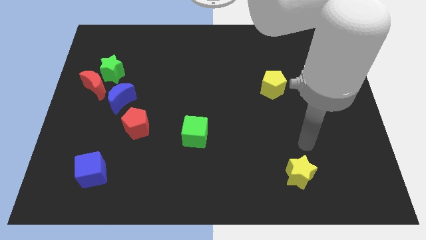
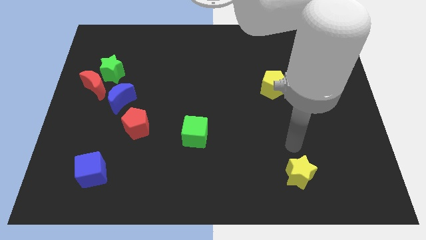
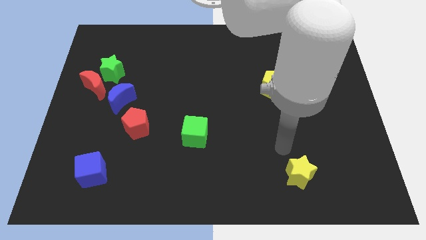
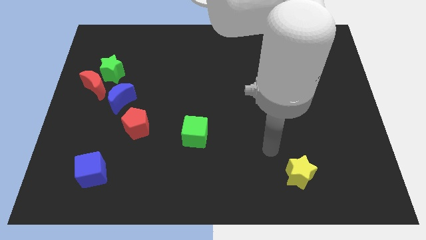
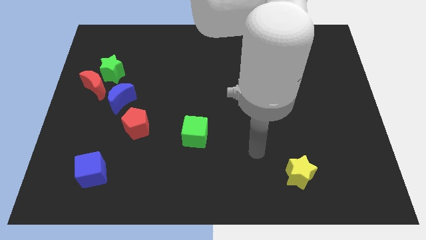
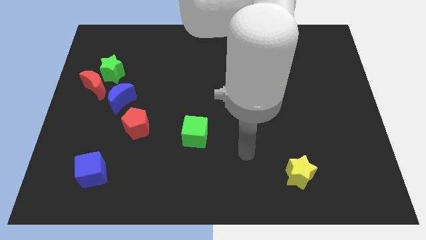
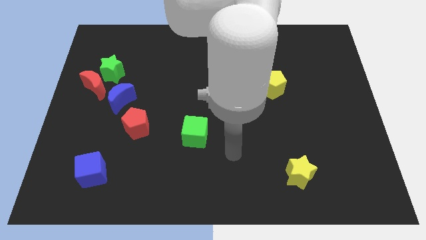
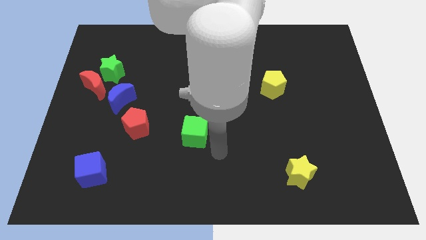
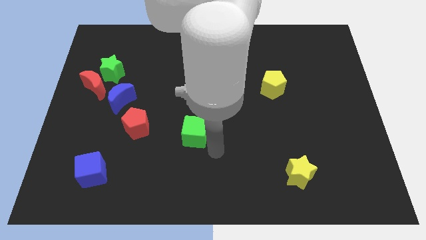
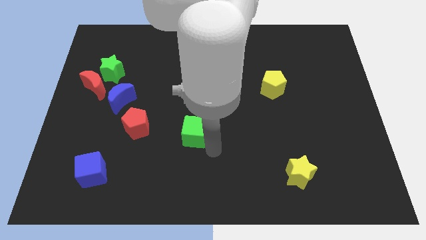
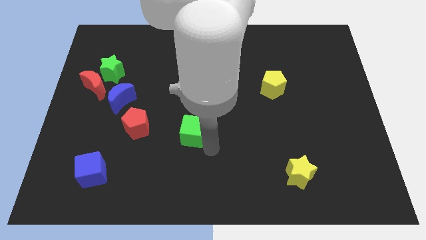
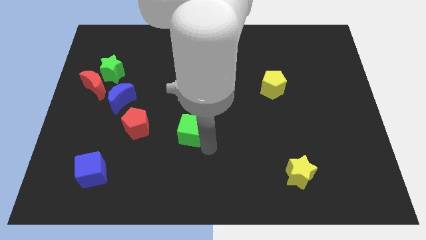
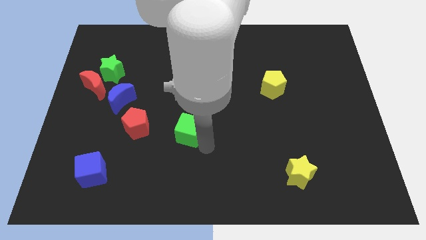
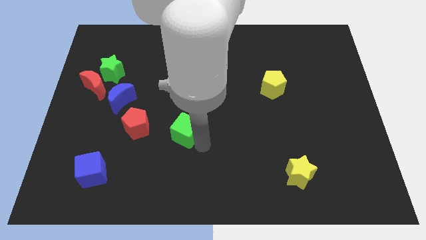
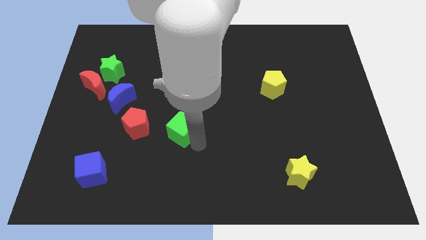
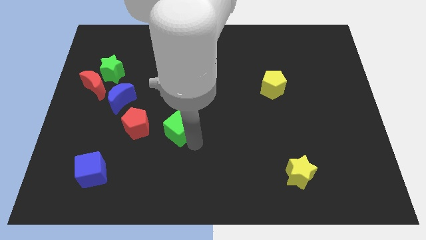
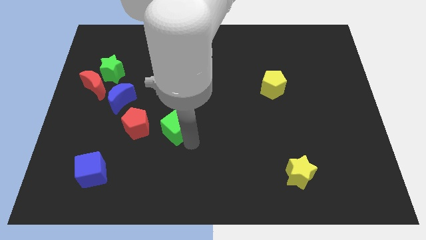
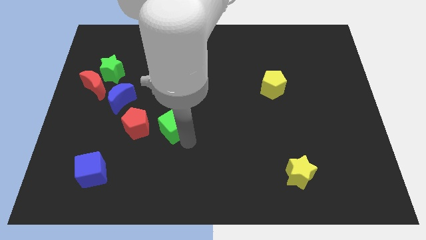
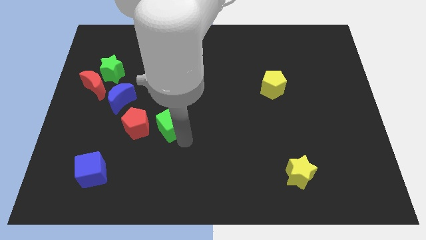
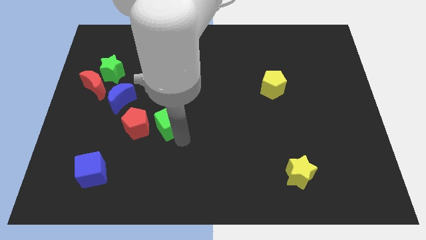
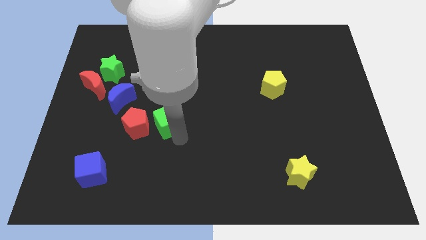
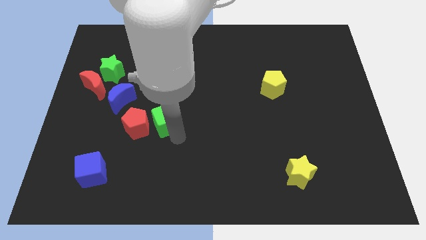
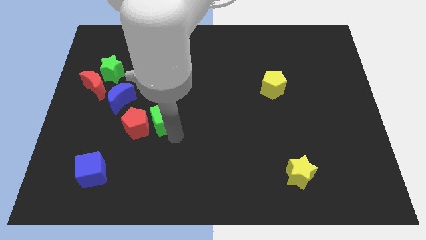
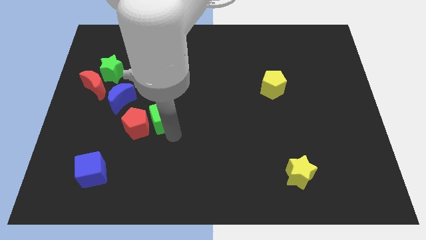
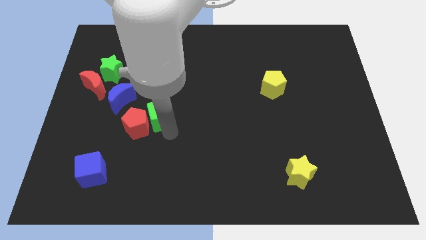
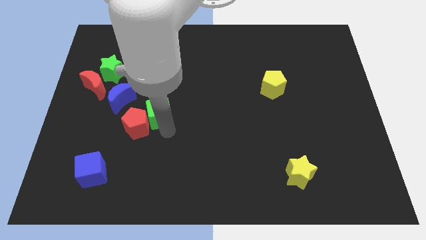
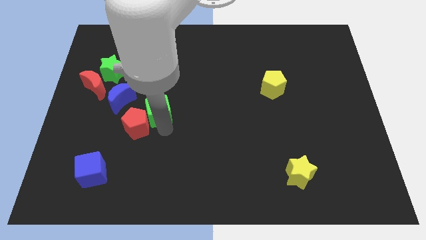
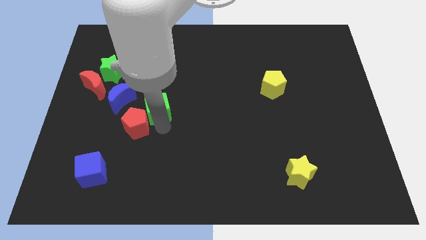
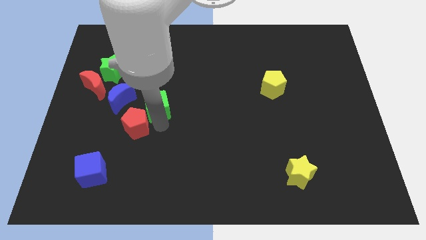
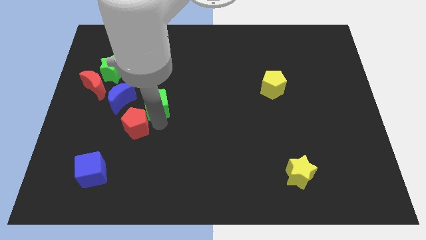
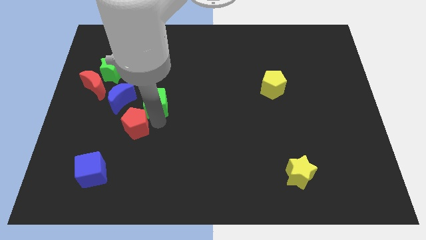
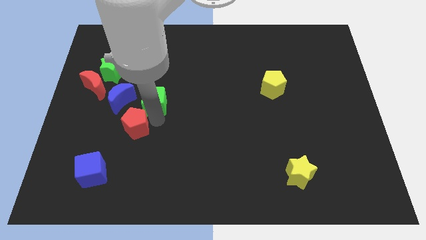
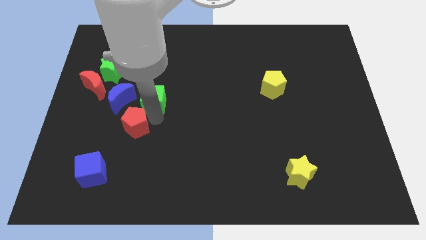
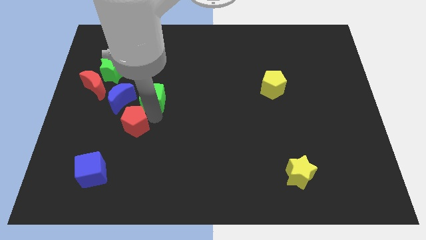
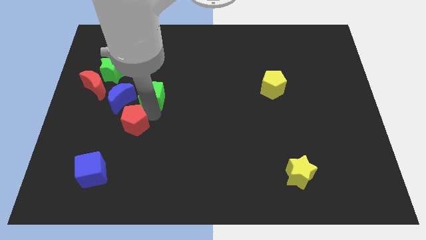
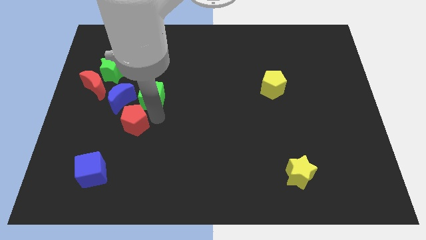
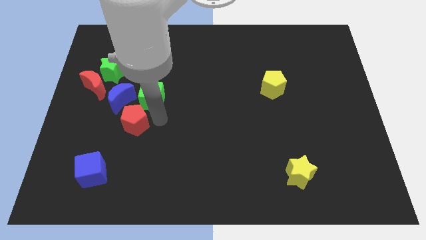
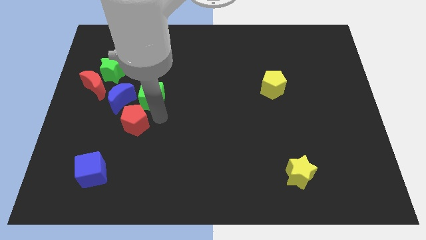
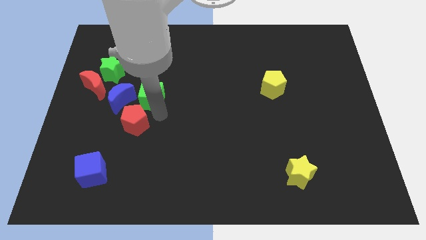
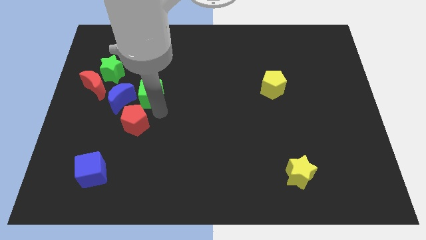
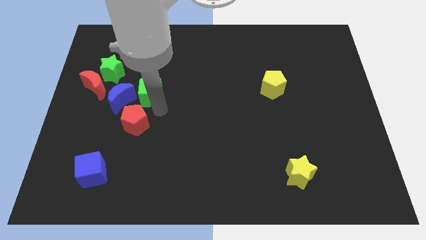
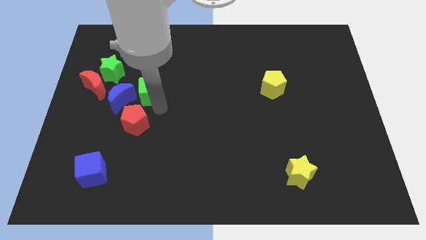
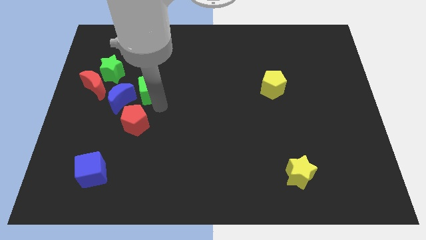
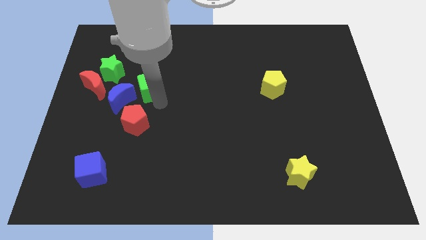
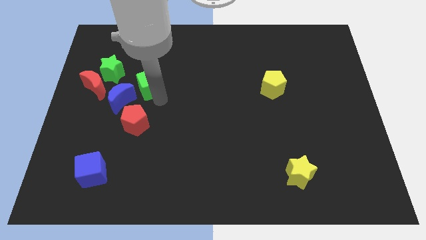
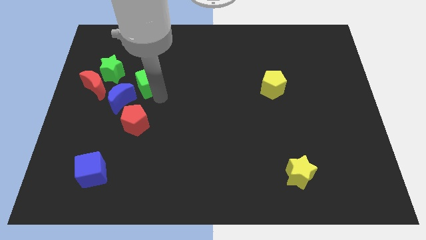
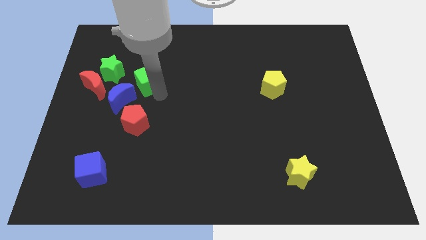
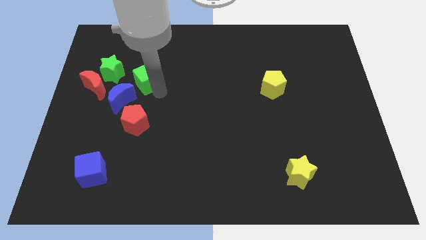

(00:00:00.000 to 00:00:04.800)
slide the green cube diagonally upwards and left

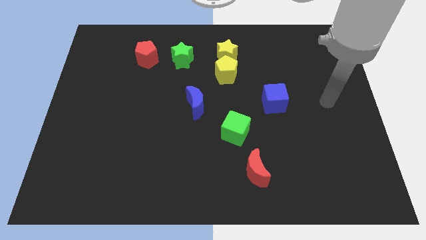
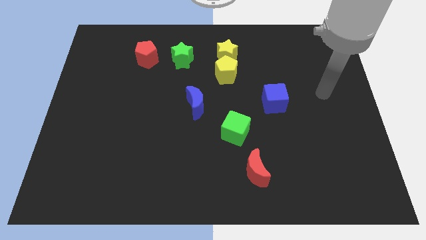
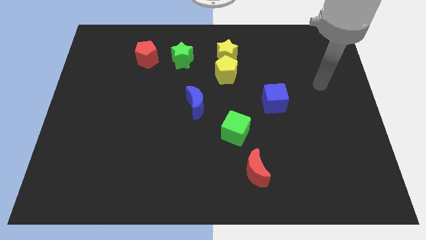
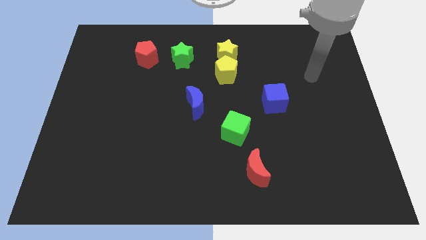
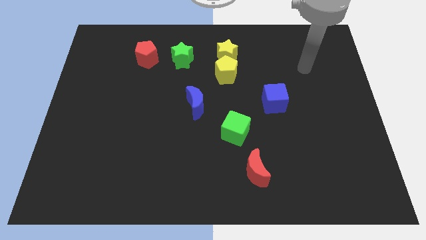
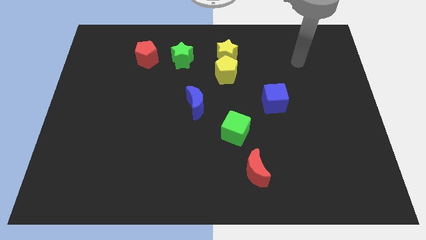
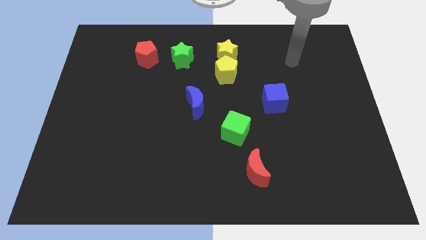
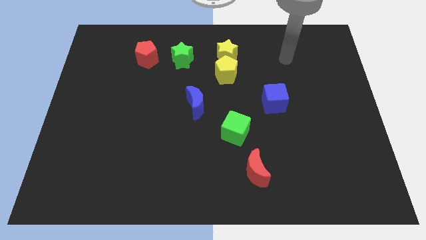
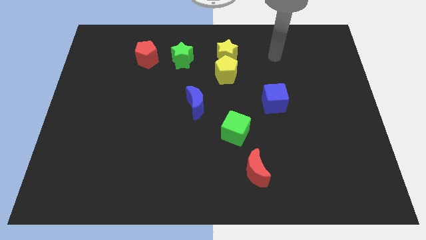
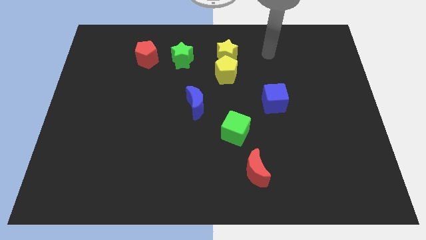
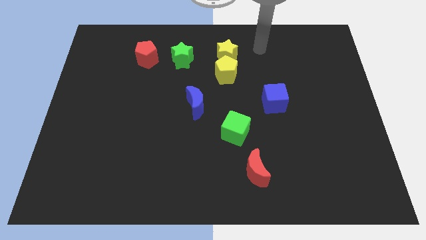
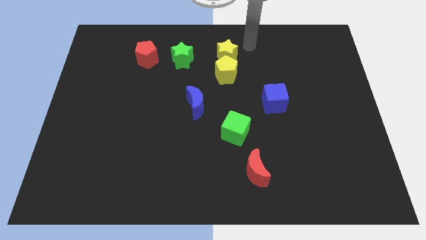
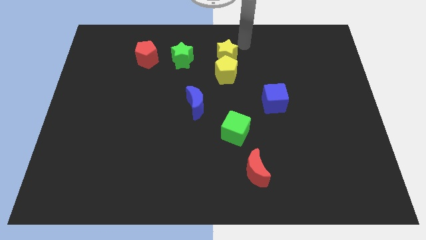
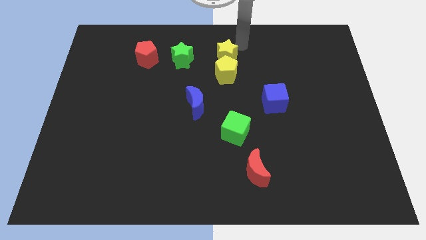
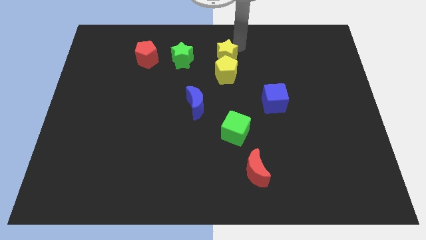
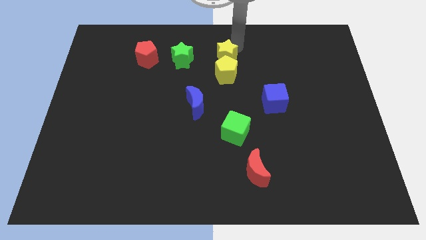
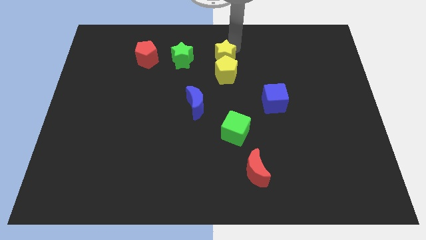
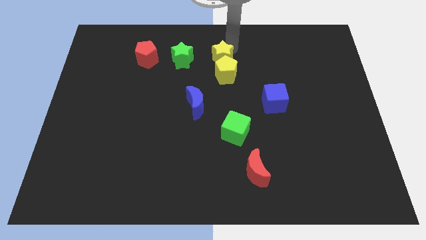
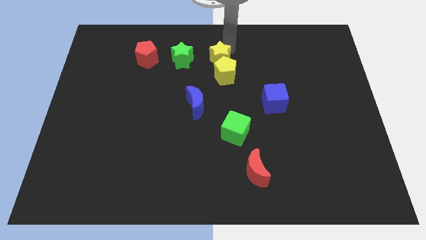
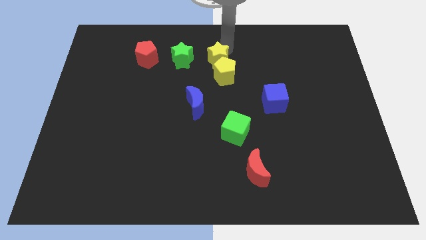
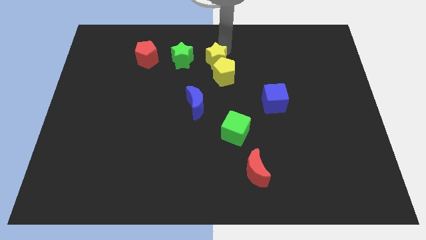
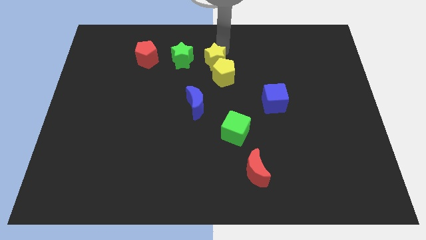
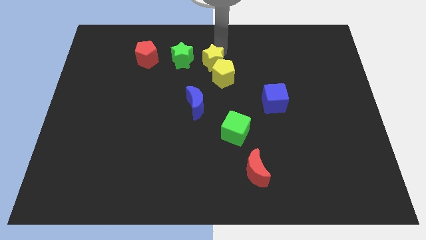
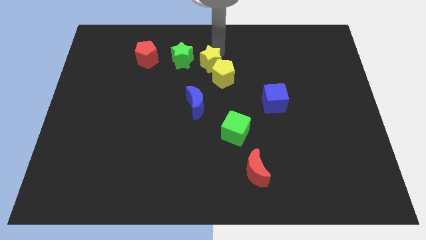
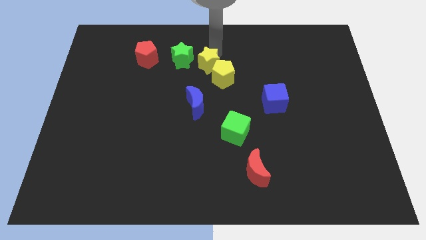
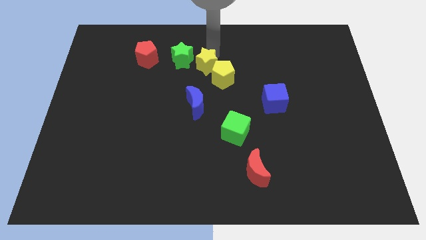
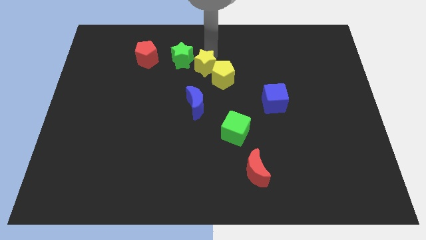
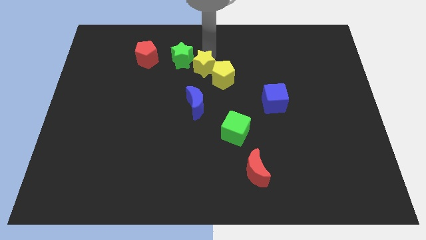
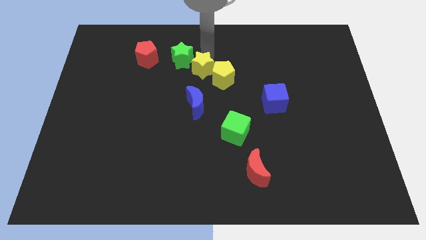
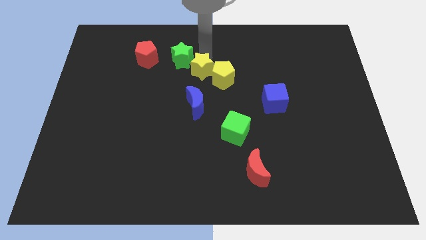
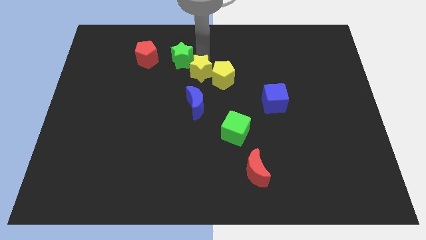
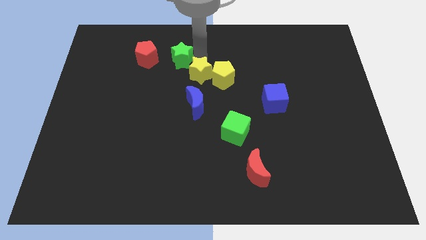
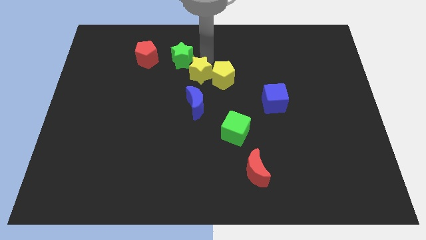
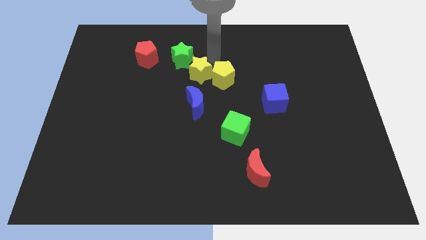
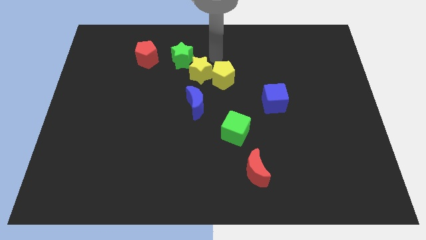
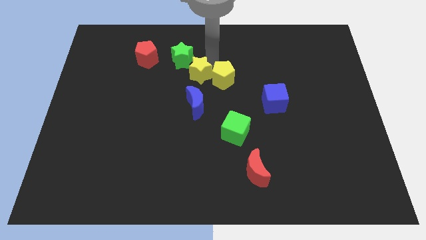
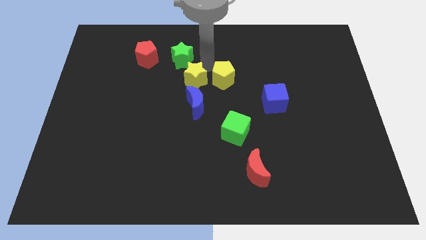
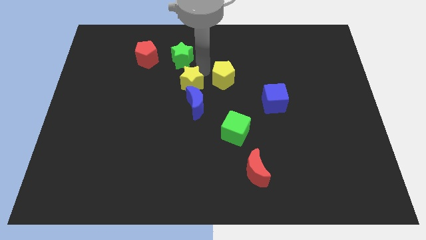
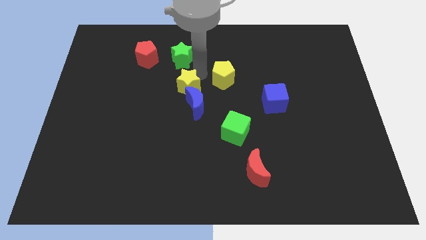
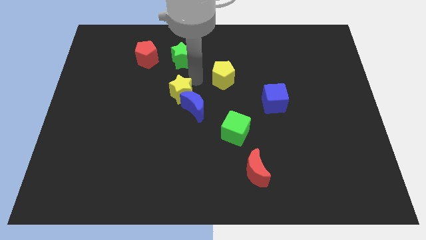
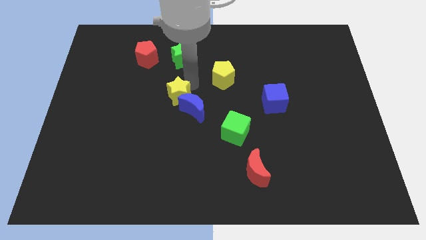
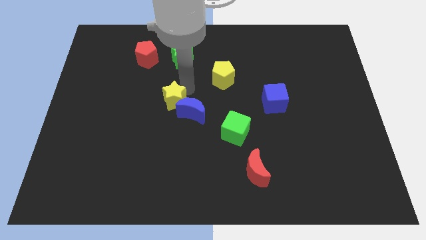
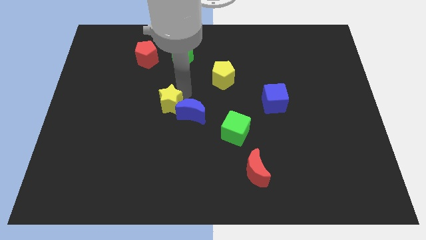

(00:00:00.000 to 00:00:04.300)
move the yellow star down and to the left
